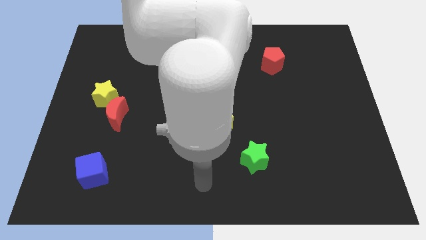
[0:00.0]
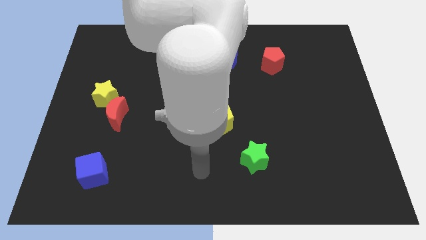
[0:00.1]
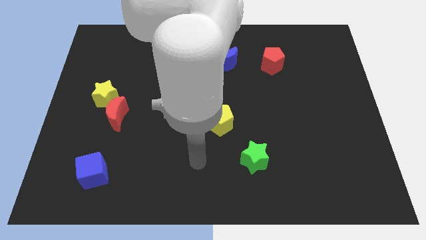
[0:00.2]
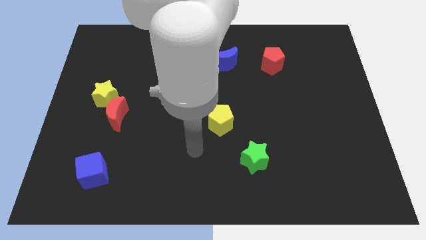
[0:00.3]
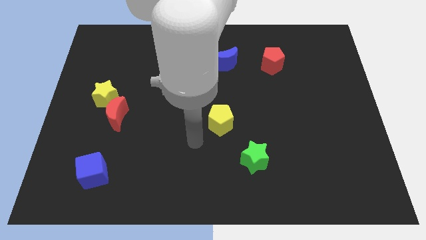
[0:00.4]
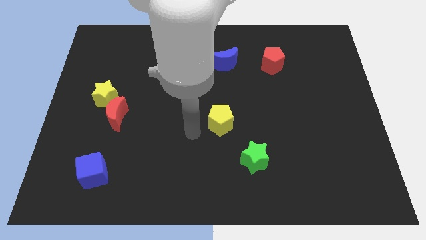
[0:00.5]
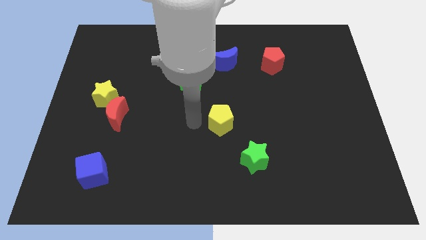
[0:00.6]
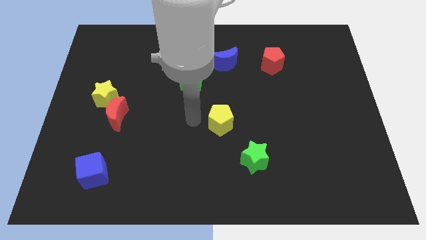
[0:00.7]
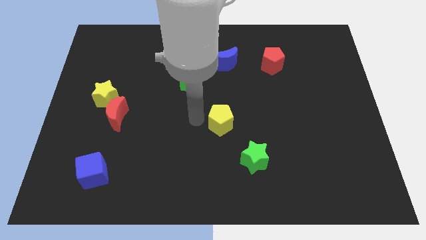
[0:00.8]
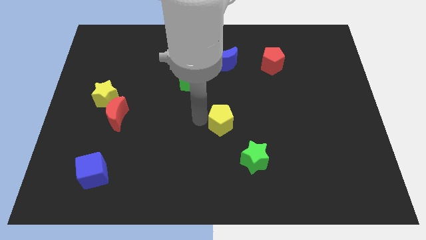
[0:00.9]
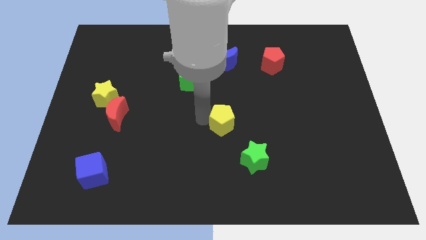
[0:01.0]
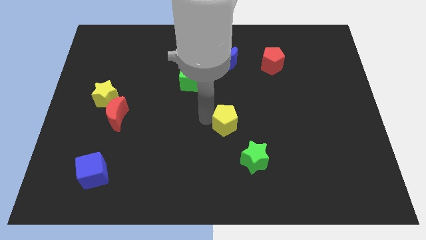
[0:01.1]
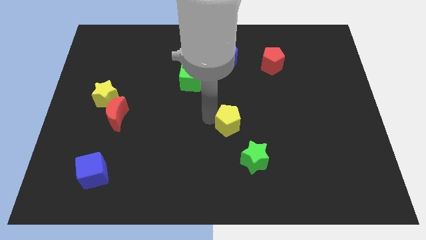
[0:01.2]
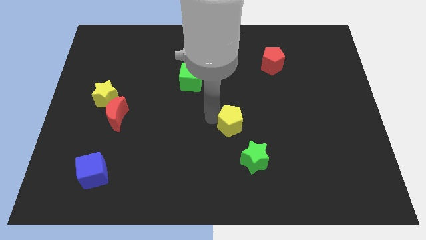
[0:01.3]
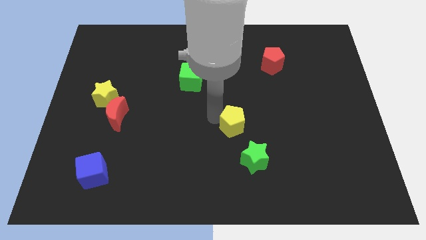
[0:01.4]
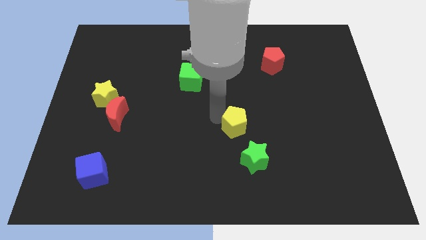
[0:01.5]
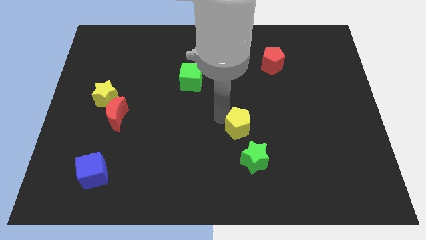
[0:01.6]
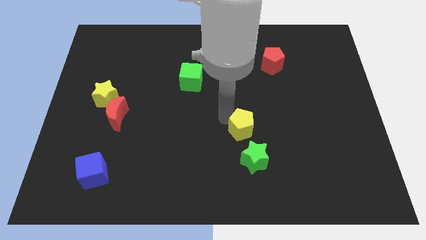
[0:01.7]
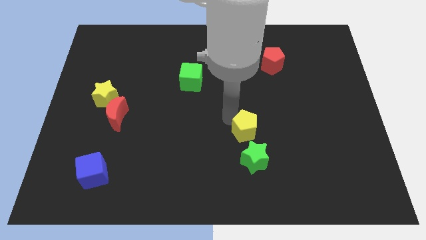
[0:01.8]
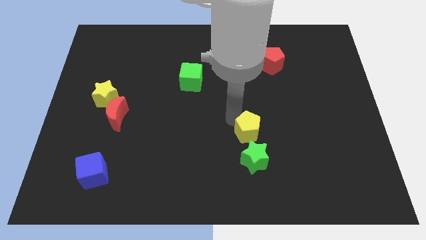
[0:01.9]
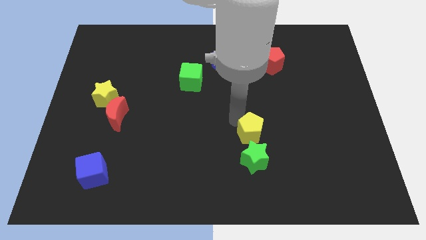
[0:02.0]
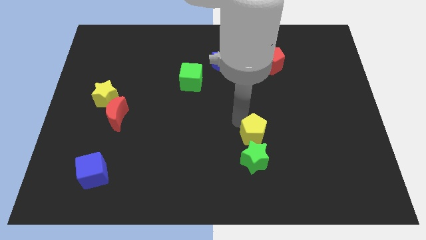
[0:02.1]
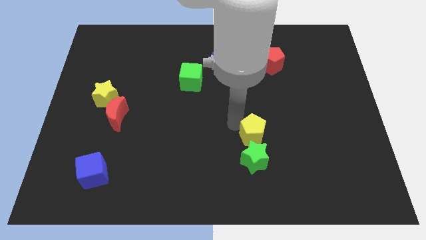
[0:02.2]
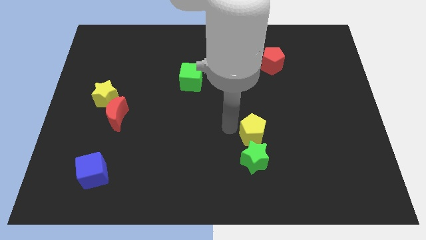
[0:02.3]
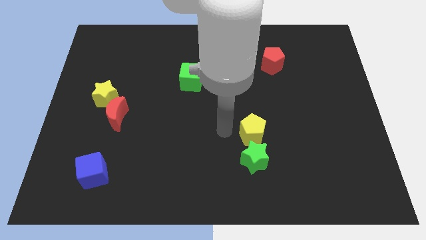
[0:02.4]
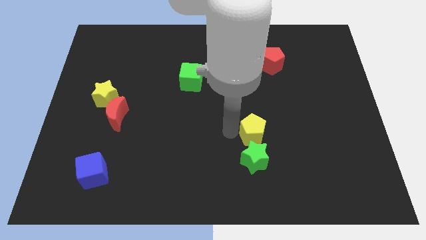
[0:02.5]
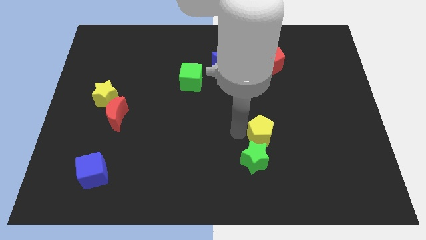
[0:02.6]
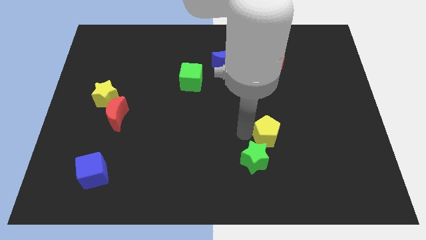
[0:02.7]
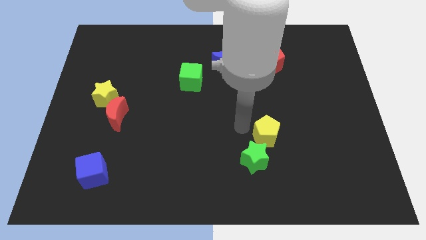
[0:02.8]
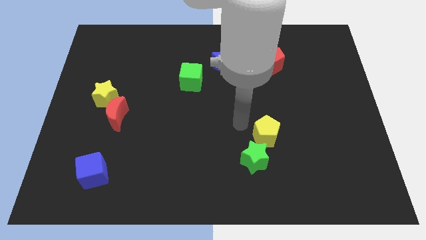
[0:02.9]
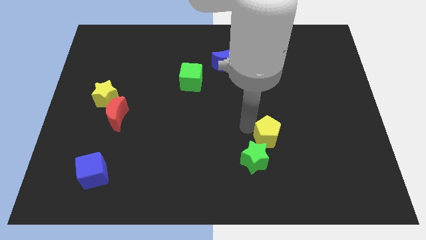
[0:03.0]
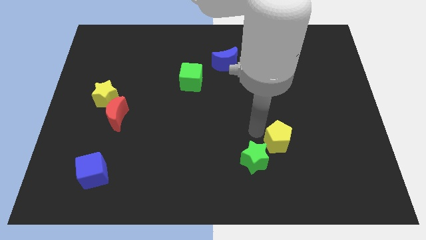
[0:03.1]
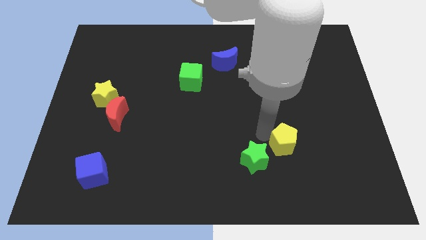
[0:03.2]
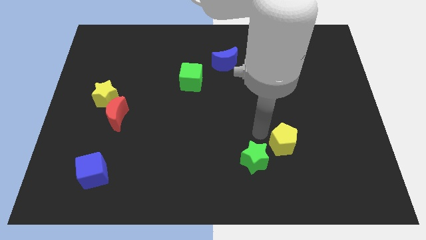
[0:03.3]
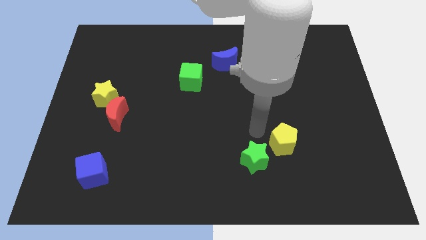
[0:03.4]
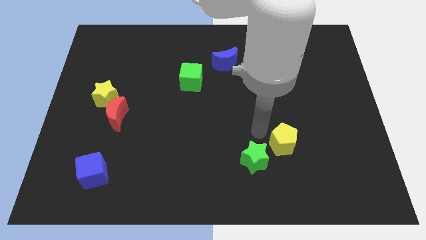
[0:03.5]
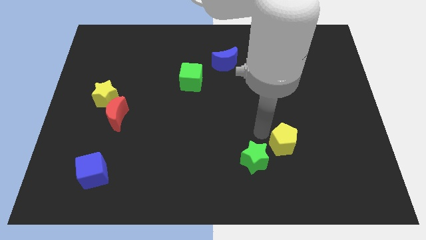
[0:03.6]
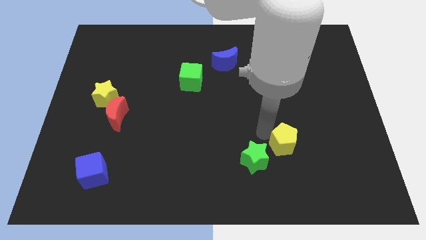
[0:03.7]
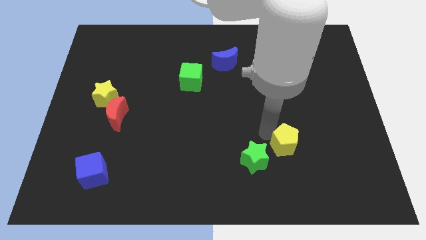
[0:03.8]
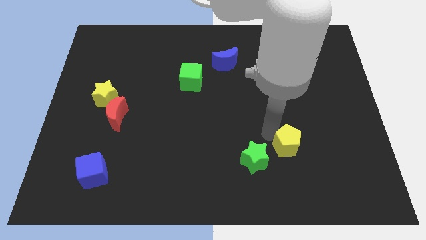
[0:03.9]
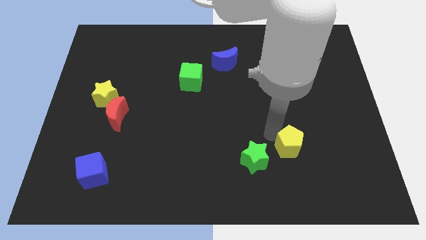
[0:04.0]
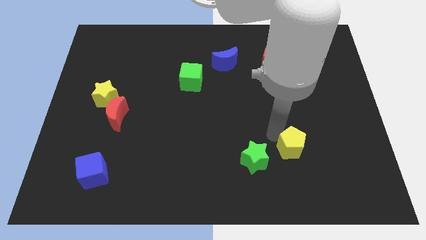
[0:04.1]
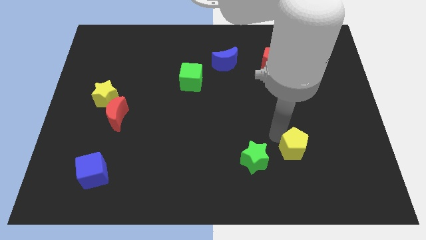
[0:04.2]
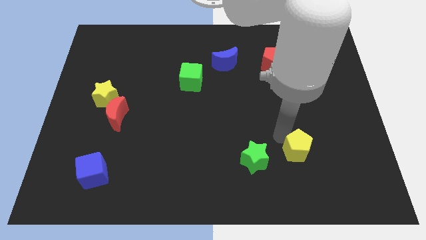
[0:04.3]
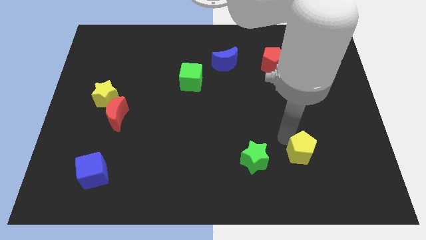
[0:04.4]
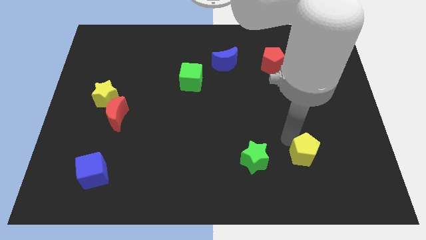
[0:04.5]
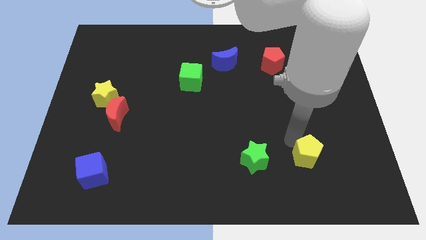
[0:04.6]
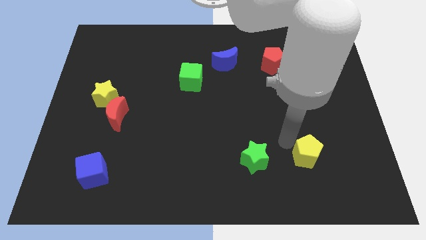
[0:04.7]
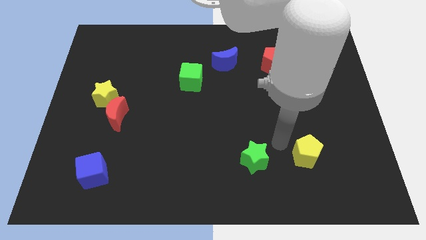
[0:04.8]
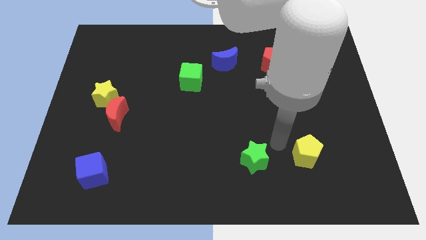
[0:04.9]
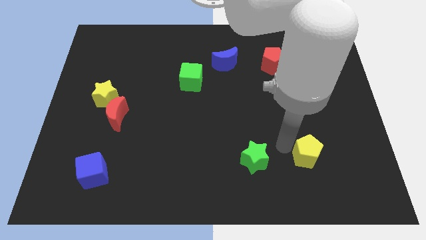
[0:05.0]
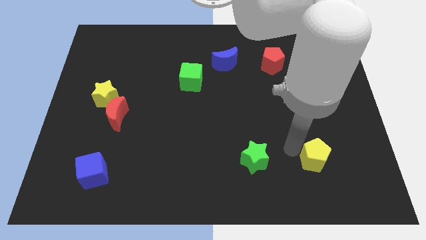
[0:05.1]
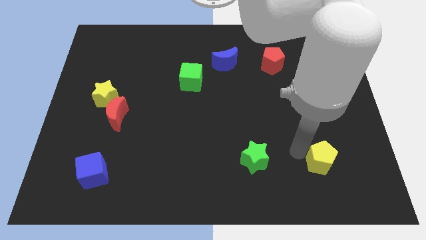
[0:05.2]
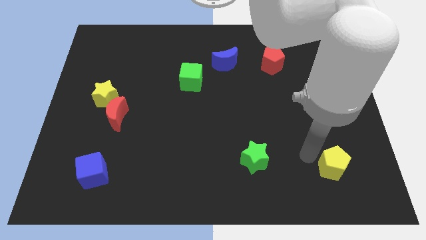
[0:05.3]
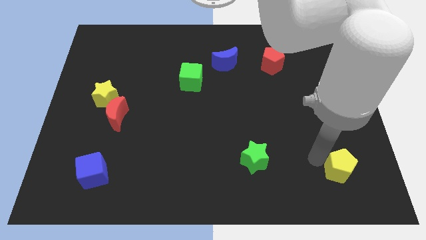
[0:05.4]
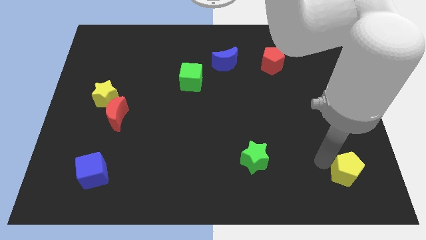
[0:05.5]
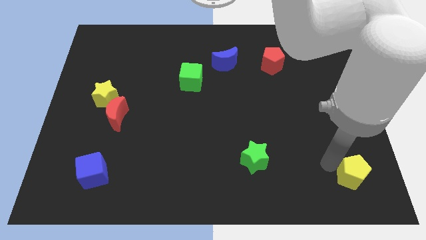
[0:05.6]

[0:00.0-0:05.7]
move the yellow pentagon to the bottom right
